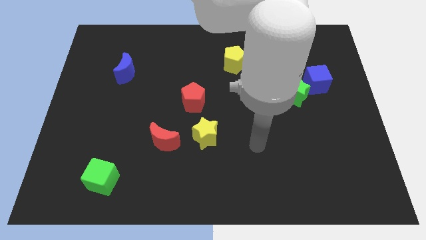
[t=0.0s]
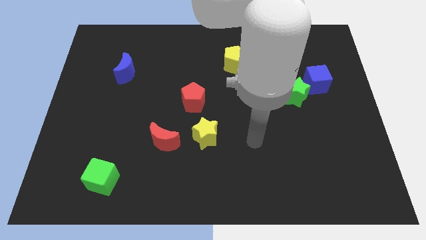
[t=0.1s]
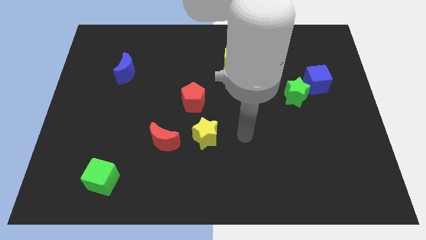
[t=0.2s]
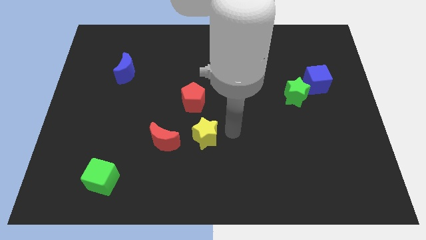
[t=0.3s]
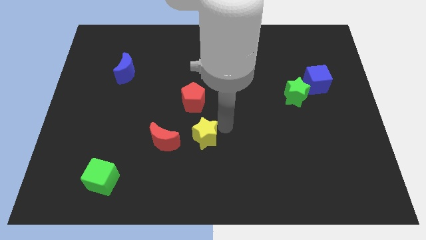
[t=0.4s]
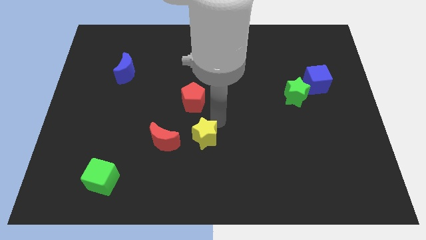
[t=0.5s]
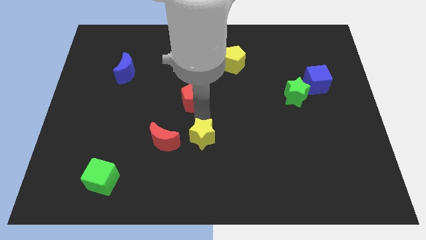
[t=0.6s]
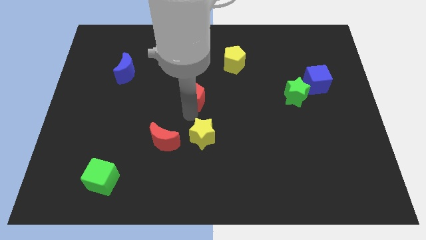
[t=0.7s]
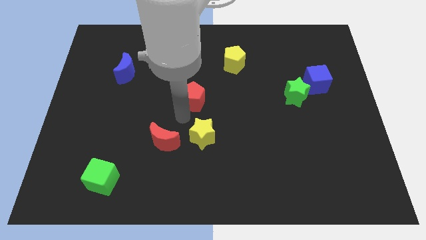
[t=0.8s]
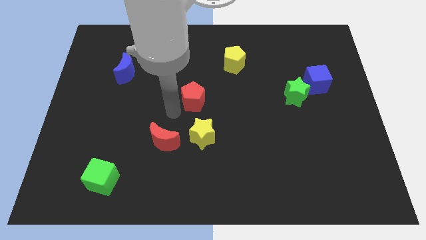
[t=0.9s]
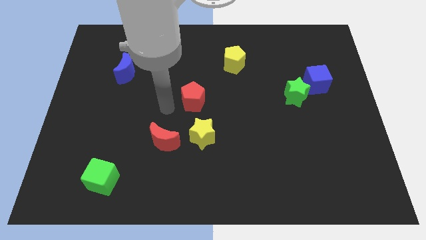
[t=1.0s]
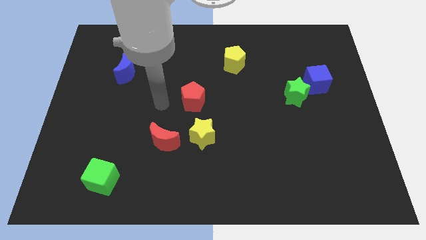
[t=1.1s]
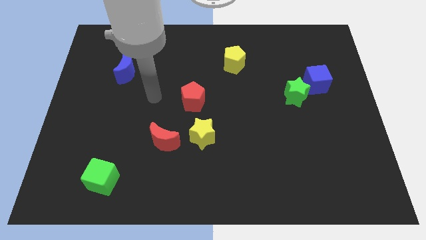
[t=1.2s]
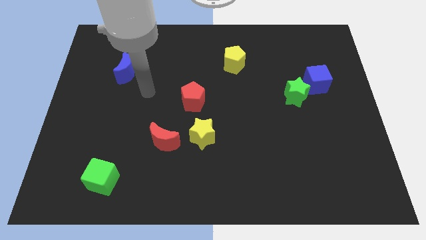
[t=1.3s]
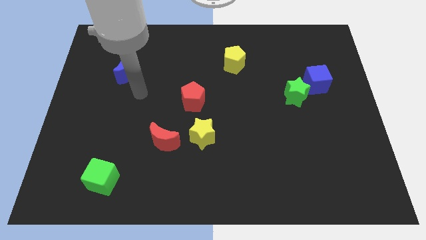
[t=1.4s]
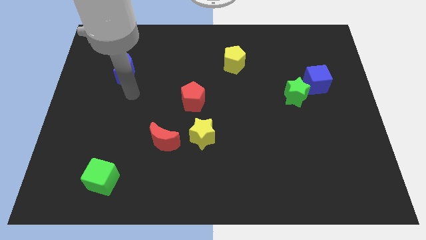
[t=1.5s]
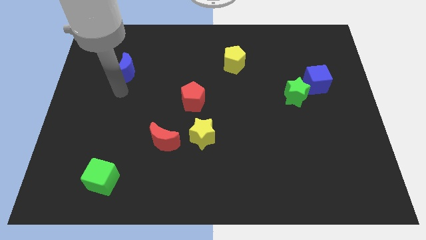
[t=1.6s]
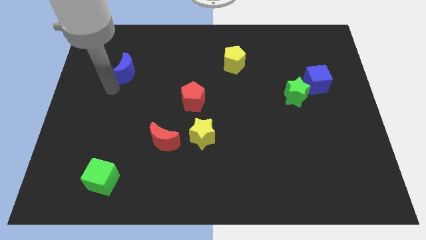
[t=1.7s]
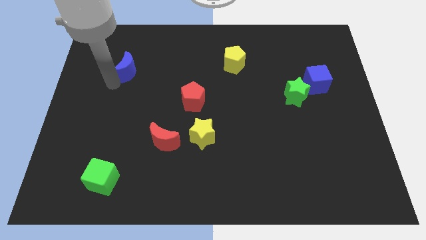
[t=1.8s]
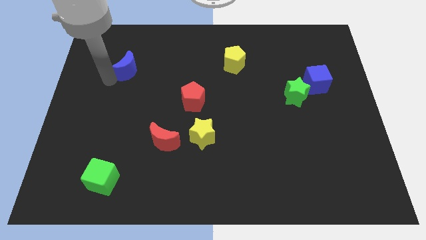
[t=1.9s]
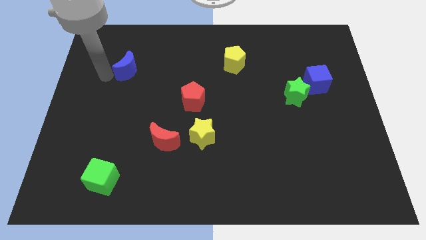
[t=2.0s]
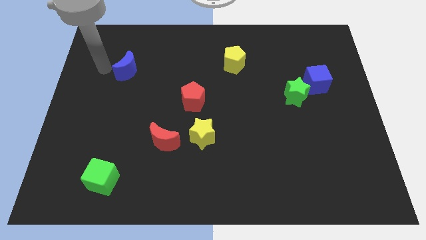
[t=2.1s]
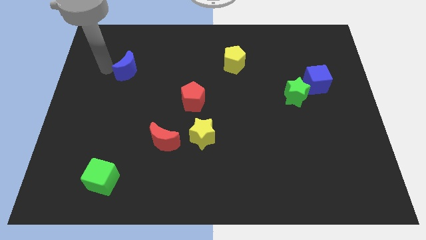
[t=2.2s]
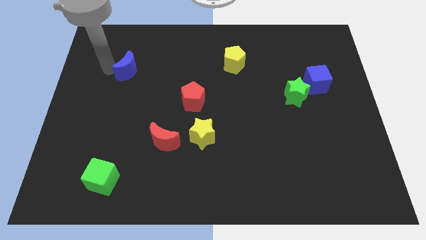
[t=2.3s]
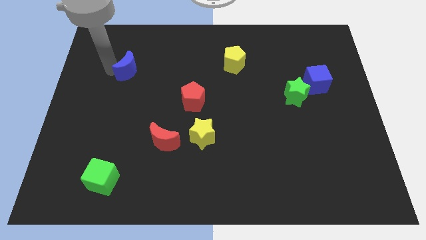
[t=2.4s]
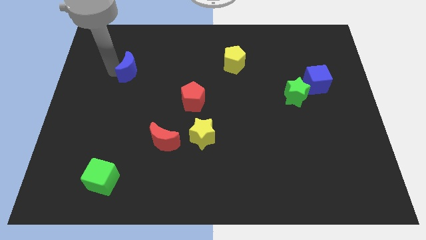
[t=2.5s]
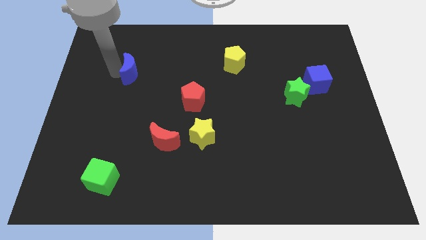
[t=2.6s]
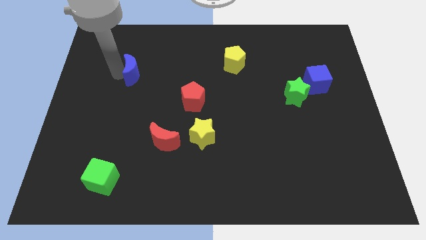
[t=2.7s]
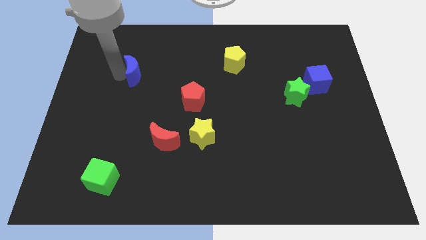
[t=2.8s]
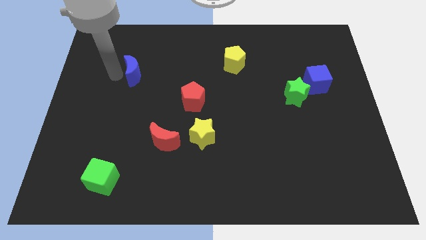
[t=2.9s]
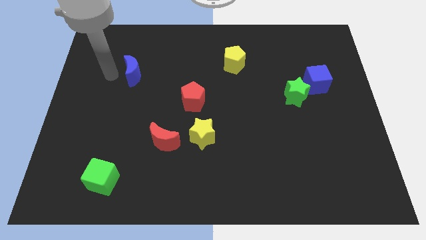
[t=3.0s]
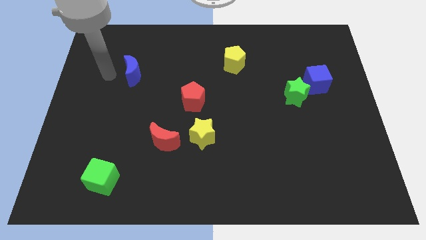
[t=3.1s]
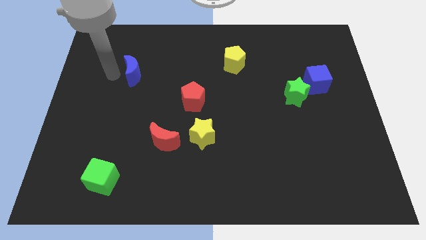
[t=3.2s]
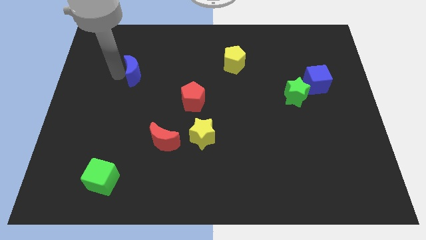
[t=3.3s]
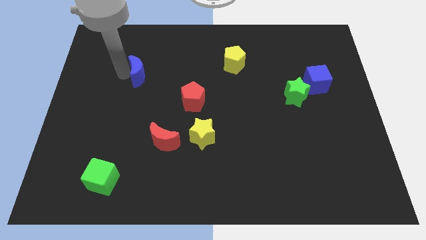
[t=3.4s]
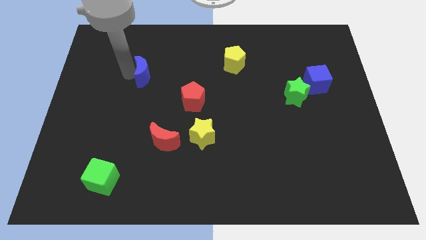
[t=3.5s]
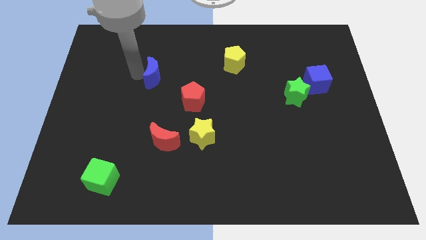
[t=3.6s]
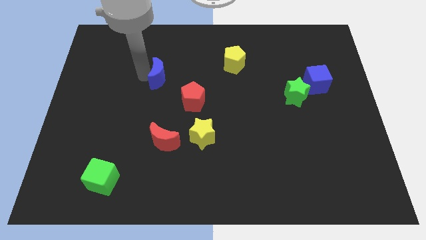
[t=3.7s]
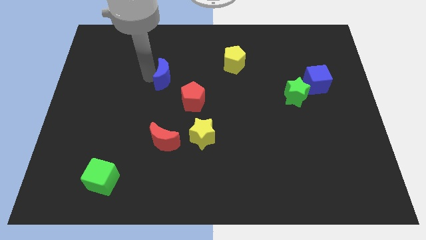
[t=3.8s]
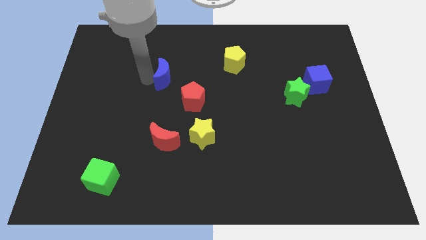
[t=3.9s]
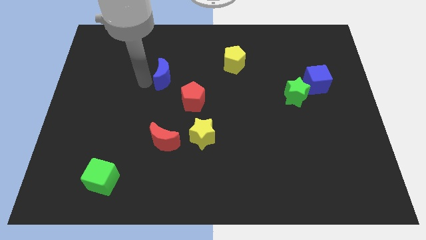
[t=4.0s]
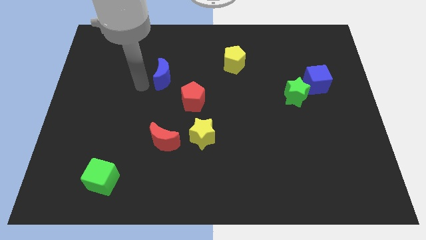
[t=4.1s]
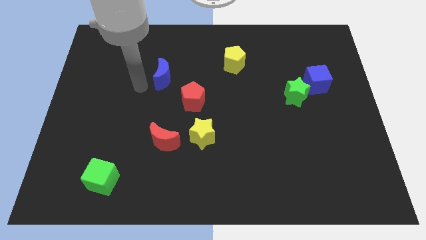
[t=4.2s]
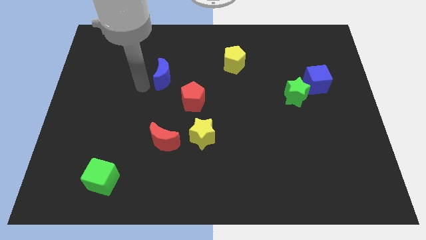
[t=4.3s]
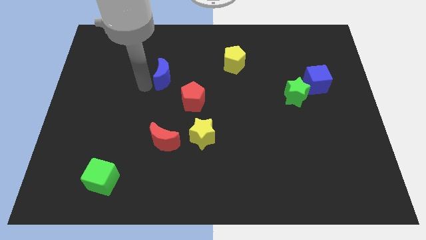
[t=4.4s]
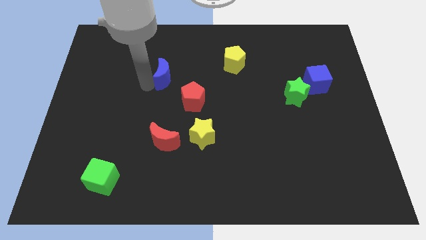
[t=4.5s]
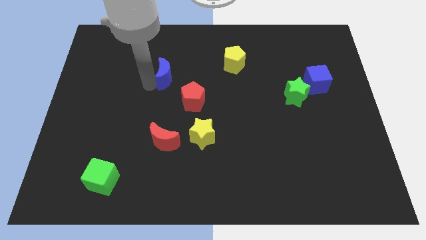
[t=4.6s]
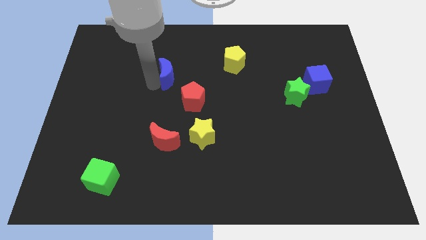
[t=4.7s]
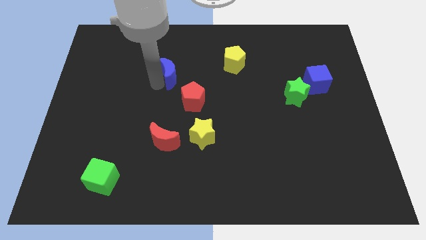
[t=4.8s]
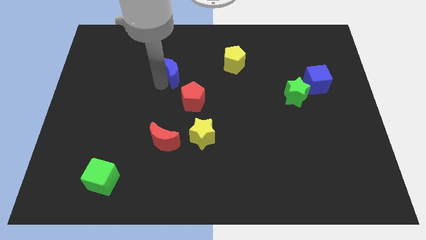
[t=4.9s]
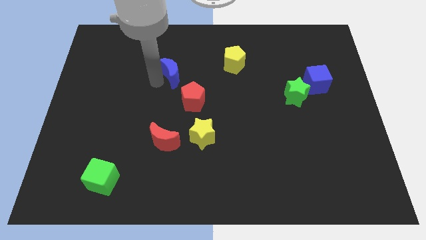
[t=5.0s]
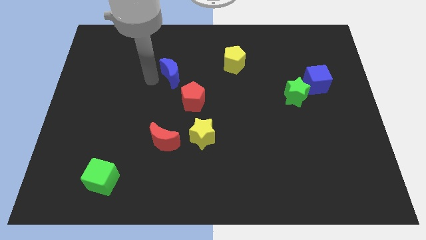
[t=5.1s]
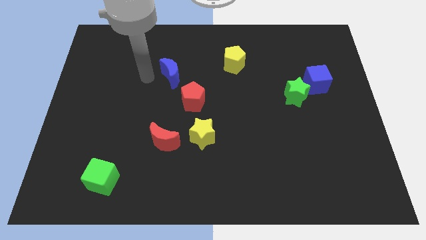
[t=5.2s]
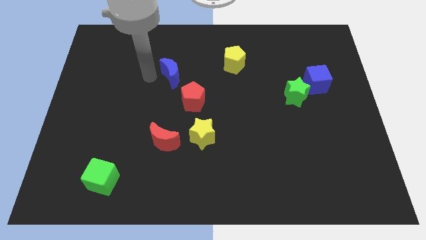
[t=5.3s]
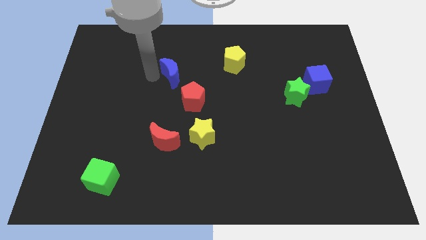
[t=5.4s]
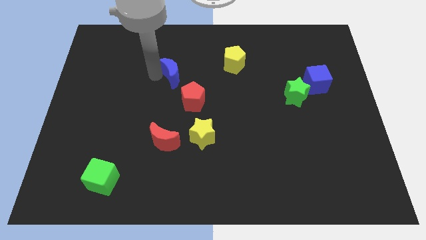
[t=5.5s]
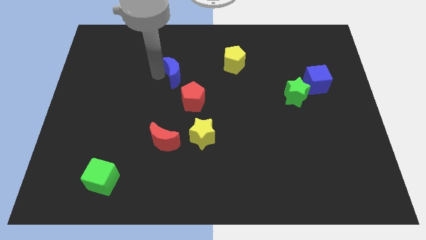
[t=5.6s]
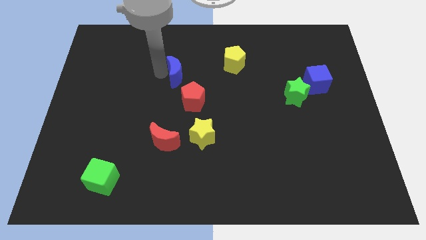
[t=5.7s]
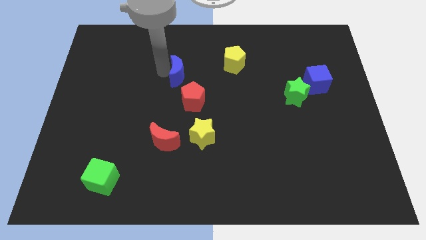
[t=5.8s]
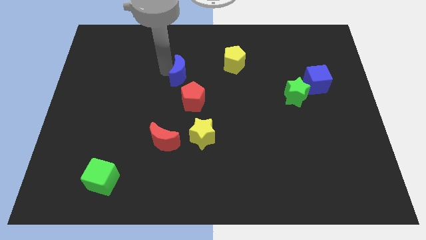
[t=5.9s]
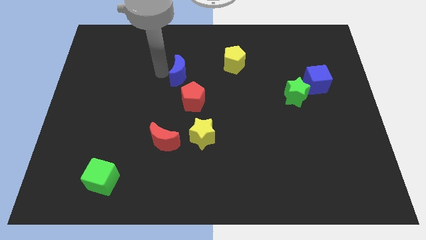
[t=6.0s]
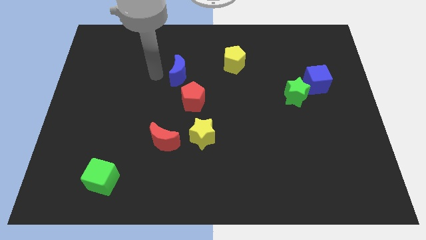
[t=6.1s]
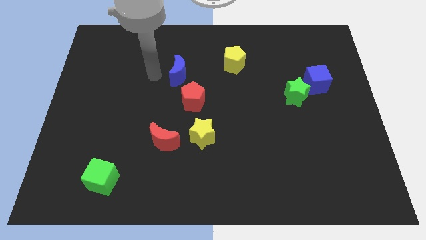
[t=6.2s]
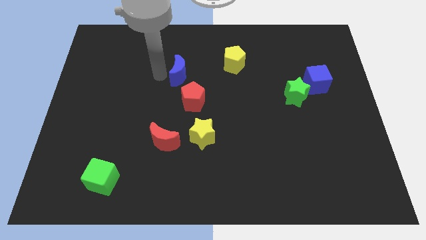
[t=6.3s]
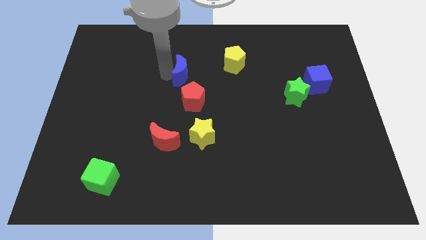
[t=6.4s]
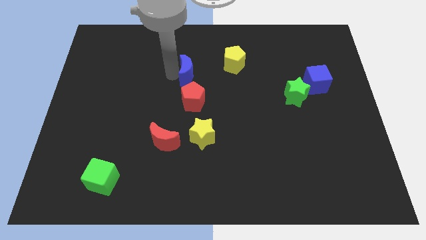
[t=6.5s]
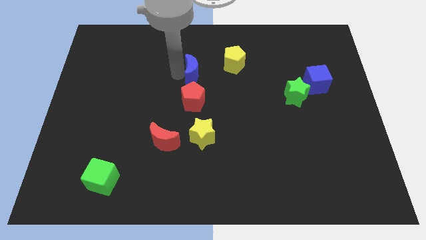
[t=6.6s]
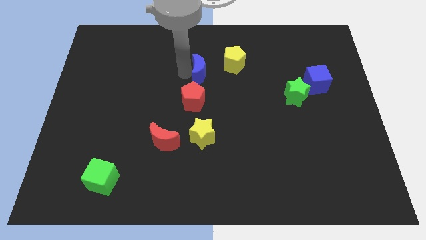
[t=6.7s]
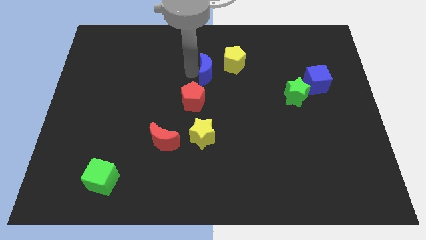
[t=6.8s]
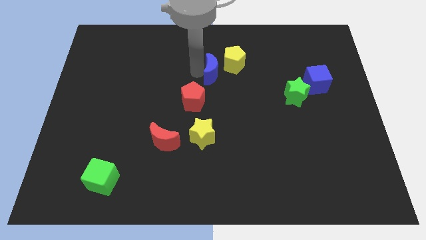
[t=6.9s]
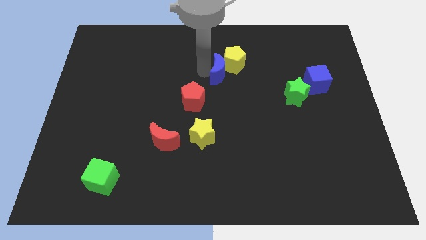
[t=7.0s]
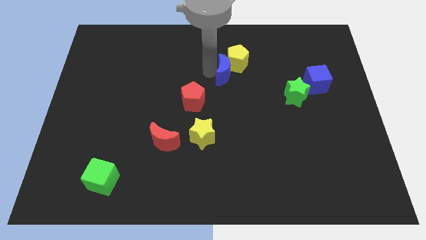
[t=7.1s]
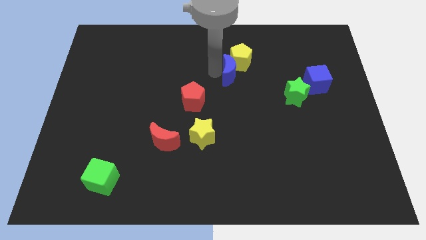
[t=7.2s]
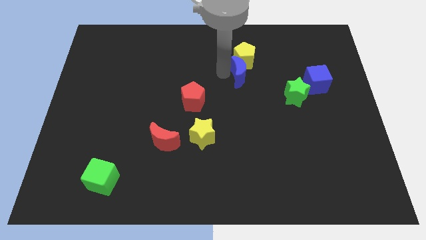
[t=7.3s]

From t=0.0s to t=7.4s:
slide the blue moon to the bottom right side of the yellow pentagon
